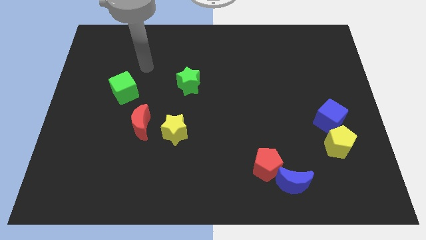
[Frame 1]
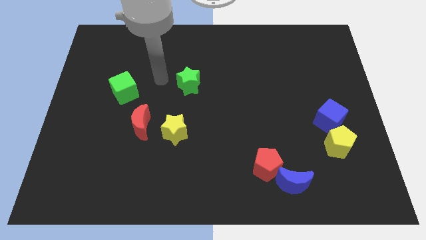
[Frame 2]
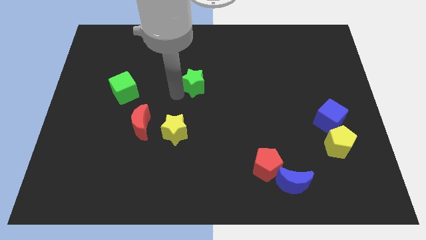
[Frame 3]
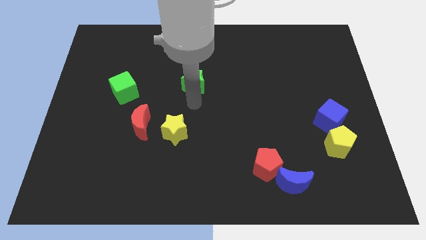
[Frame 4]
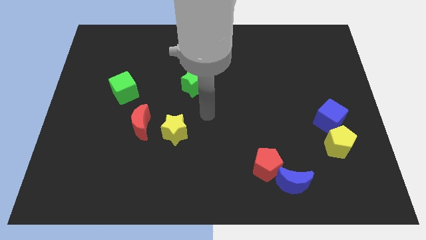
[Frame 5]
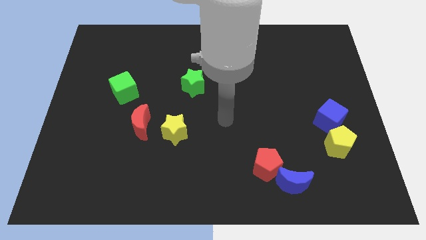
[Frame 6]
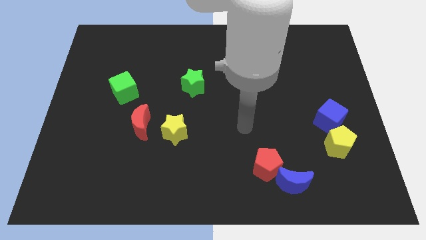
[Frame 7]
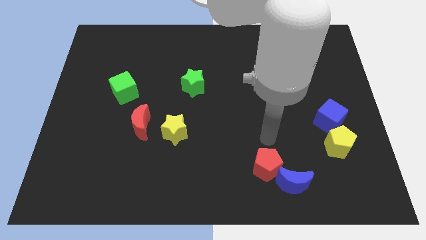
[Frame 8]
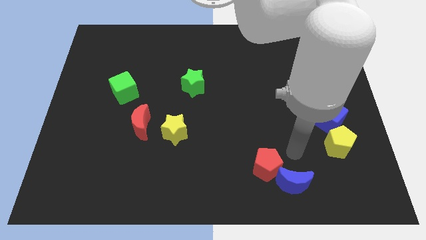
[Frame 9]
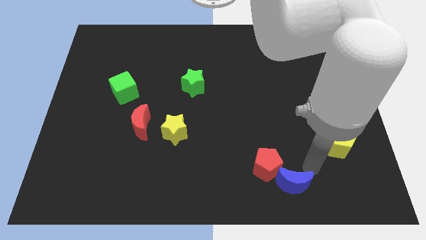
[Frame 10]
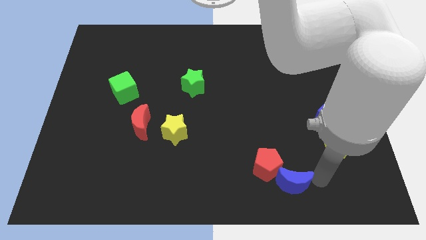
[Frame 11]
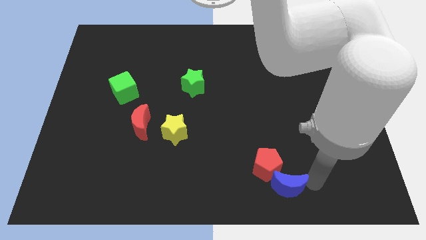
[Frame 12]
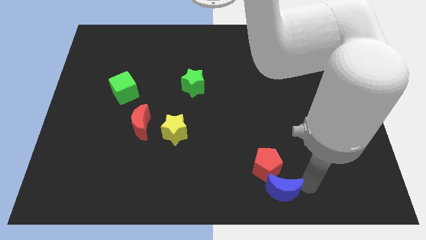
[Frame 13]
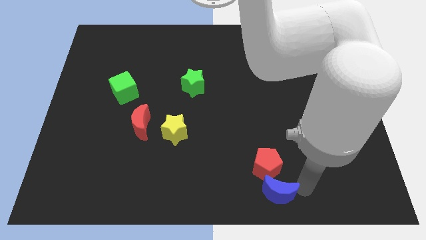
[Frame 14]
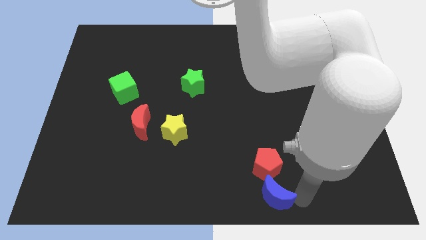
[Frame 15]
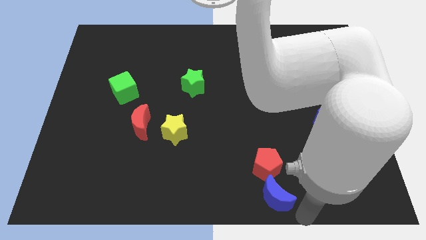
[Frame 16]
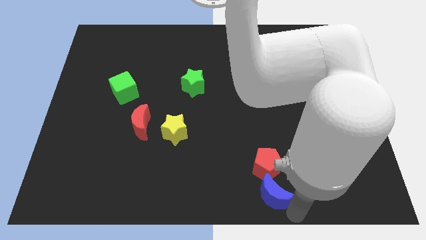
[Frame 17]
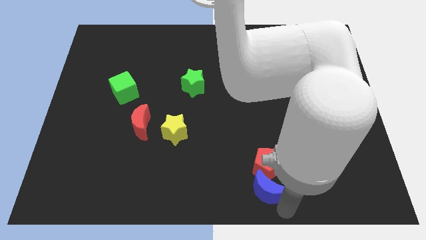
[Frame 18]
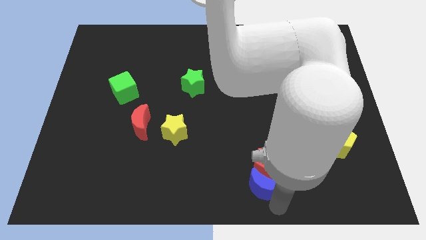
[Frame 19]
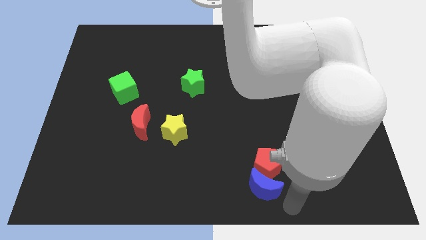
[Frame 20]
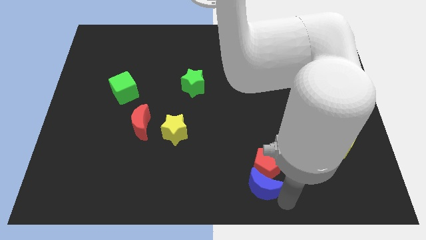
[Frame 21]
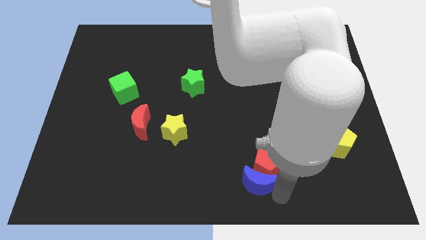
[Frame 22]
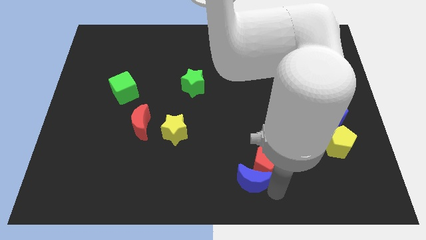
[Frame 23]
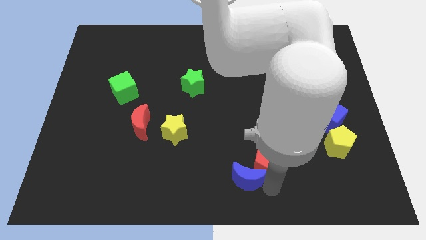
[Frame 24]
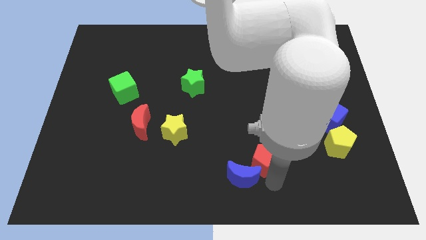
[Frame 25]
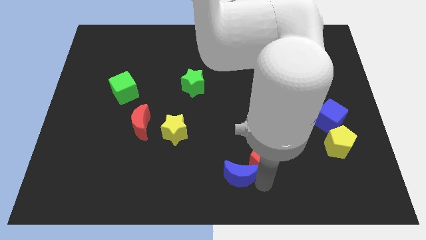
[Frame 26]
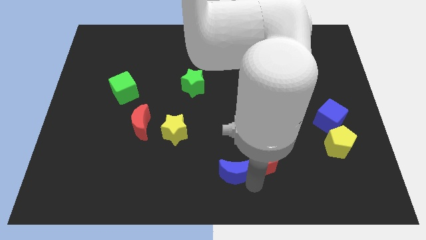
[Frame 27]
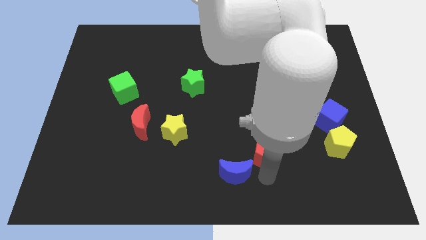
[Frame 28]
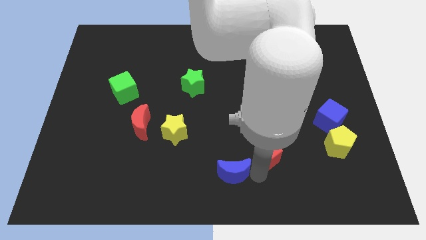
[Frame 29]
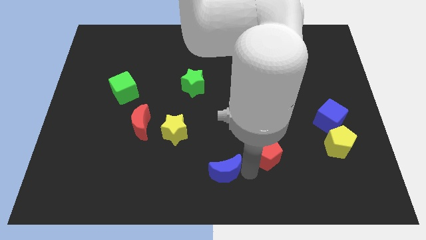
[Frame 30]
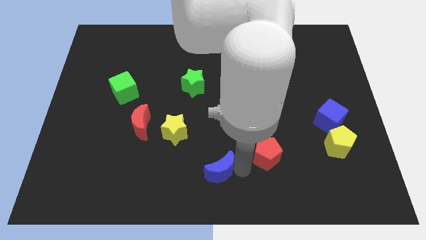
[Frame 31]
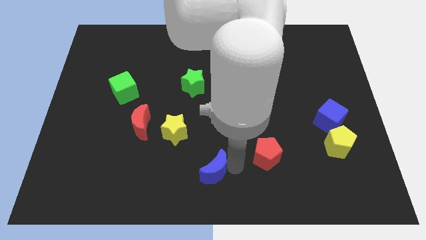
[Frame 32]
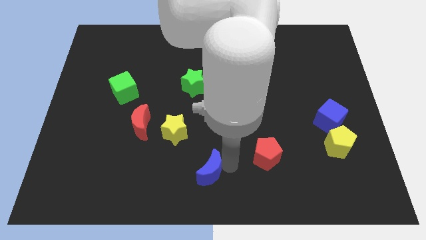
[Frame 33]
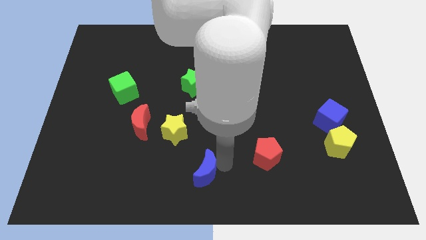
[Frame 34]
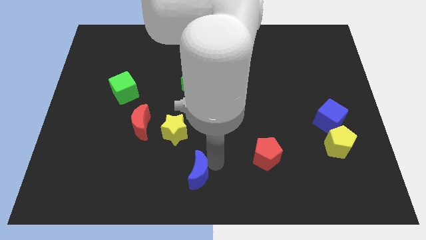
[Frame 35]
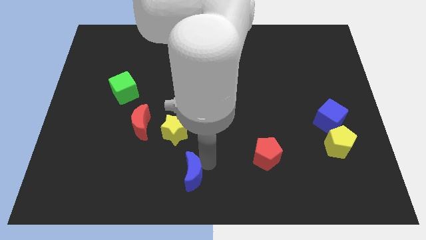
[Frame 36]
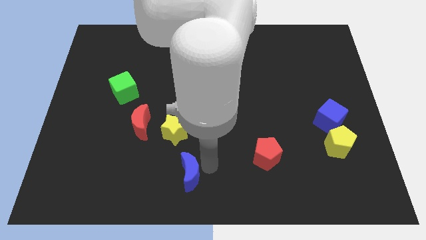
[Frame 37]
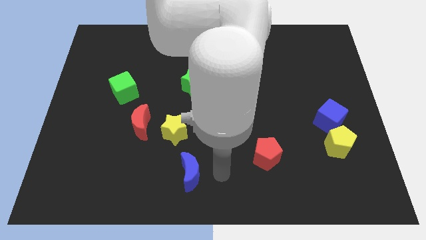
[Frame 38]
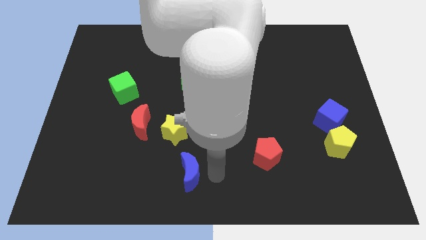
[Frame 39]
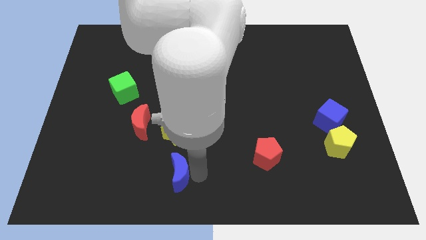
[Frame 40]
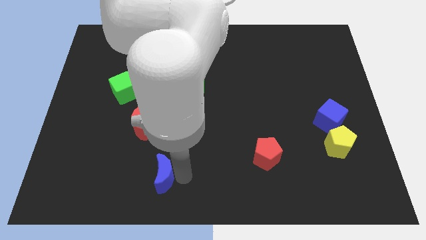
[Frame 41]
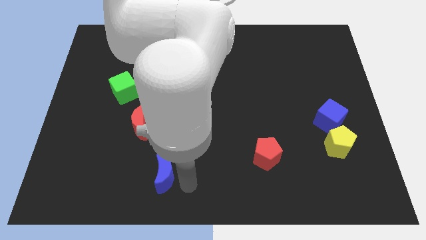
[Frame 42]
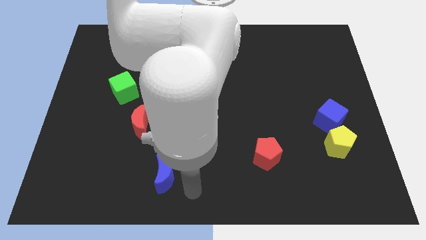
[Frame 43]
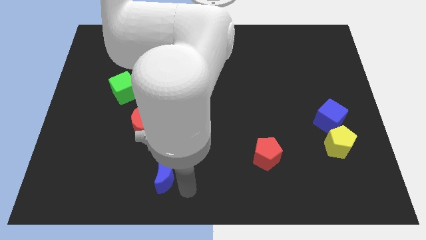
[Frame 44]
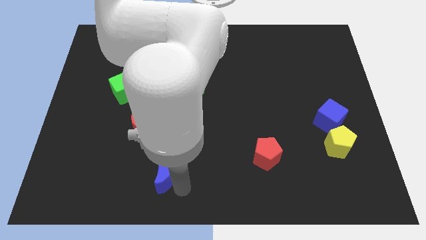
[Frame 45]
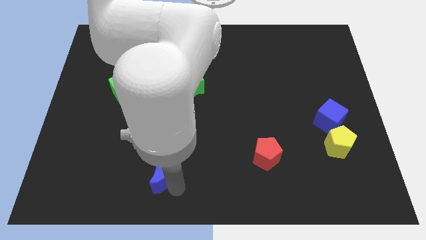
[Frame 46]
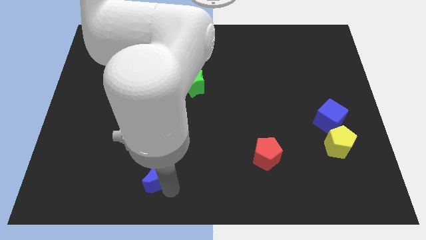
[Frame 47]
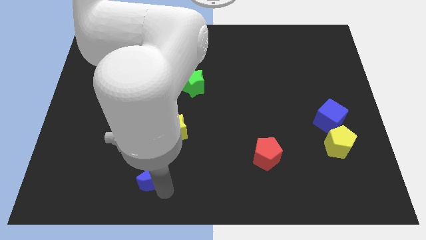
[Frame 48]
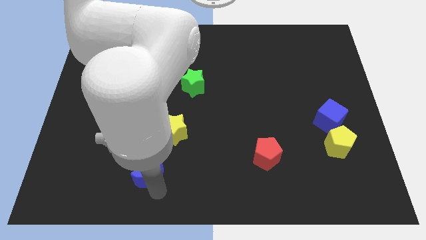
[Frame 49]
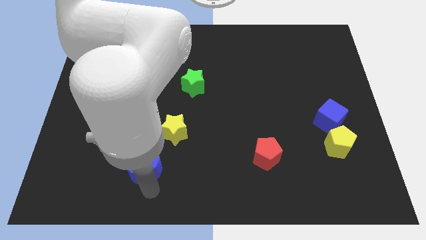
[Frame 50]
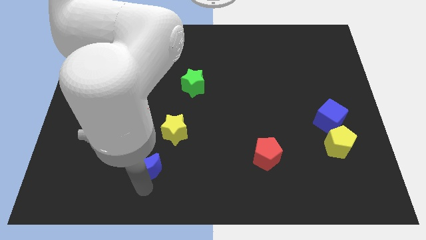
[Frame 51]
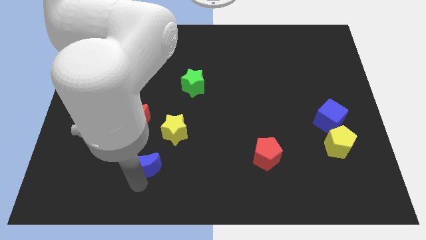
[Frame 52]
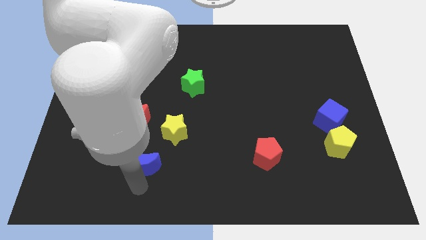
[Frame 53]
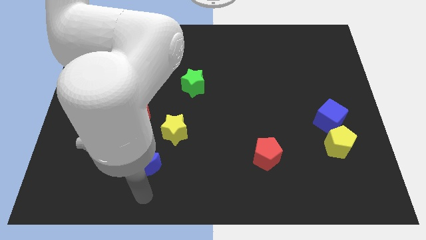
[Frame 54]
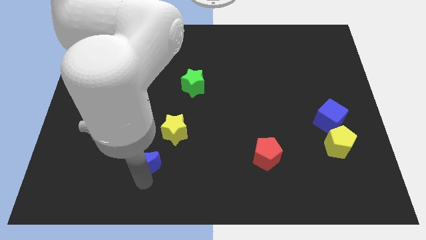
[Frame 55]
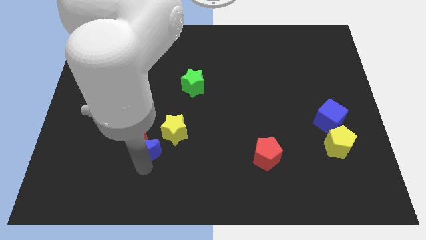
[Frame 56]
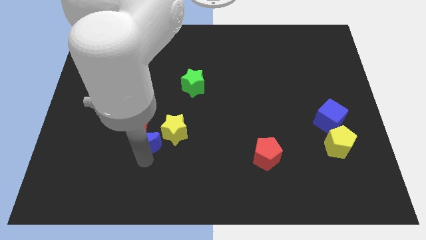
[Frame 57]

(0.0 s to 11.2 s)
slide the blue moon next to the red moon

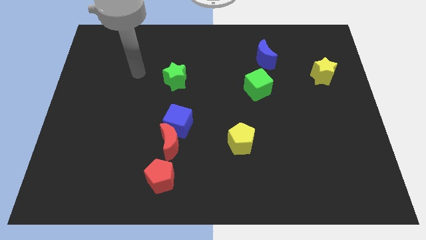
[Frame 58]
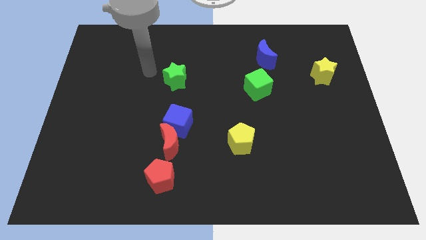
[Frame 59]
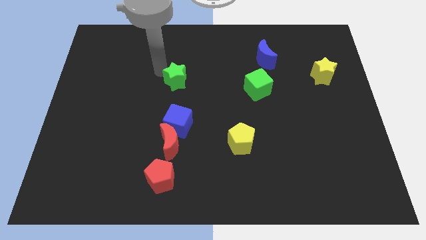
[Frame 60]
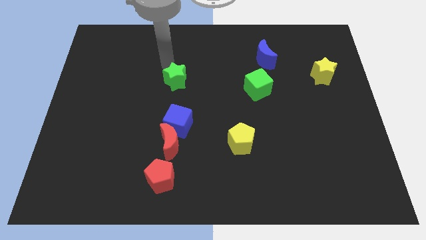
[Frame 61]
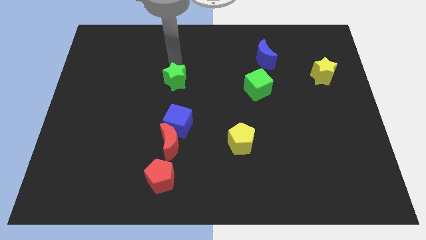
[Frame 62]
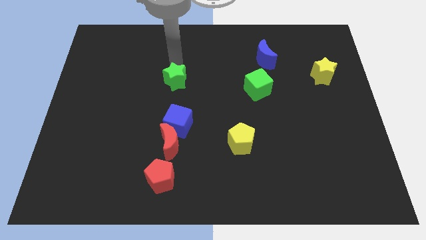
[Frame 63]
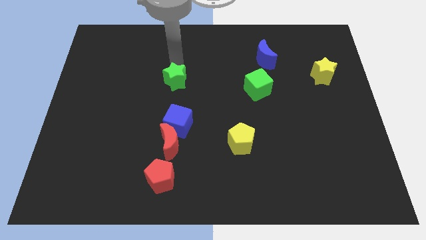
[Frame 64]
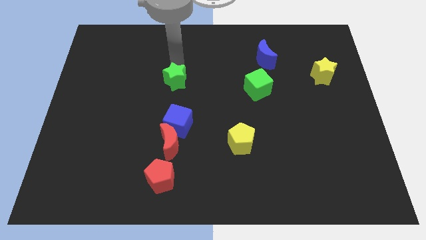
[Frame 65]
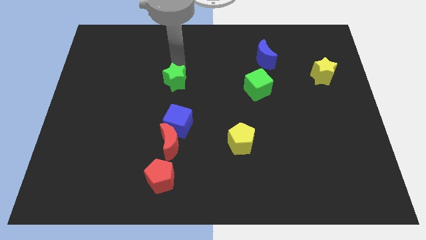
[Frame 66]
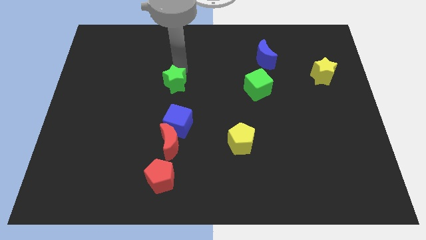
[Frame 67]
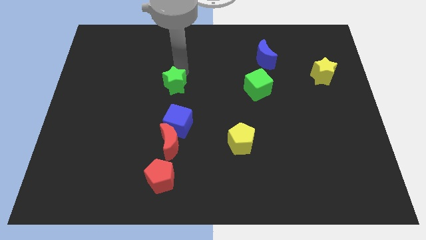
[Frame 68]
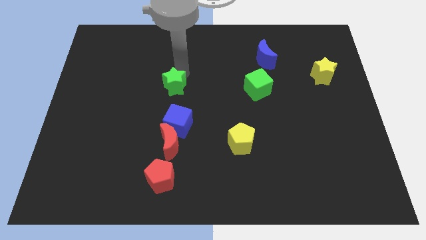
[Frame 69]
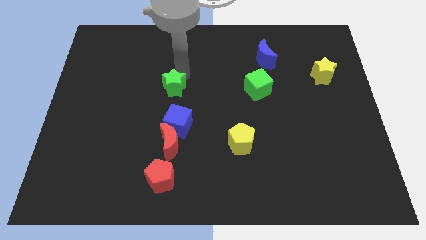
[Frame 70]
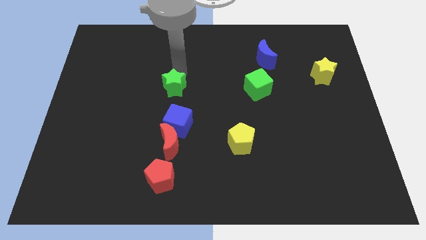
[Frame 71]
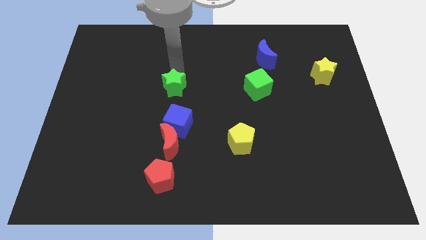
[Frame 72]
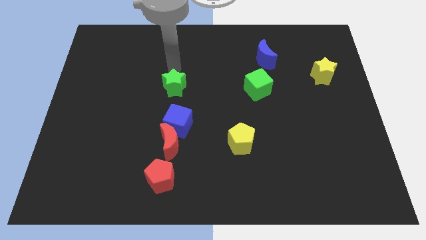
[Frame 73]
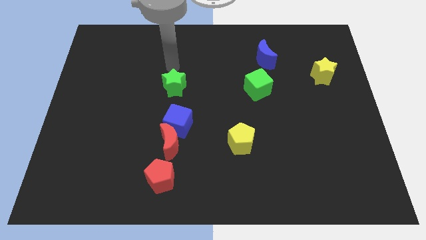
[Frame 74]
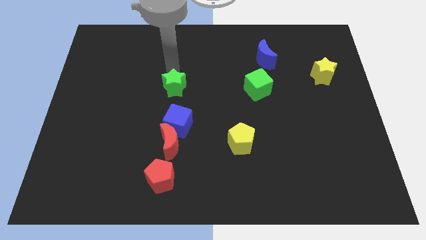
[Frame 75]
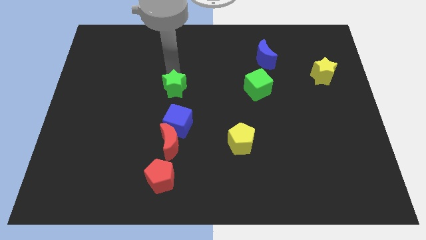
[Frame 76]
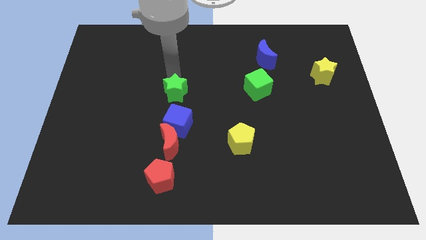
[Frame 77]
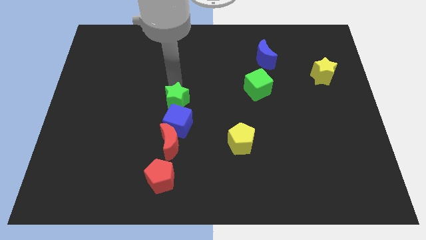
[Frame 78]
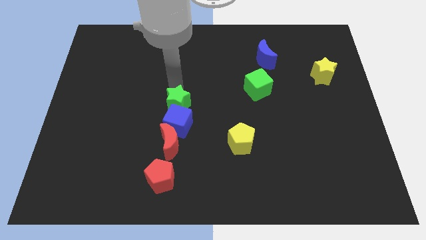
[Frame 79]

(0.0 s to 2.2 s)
move the green star close to the blue cube
